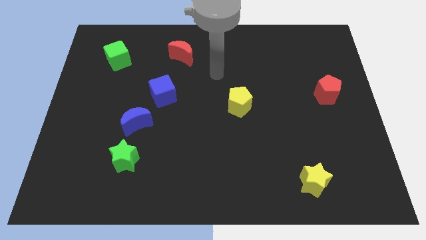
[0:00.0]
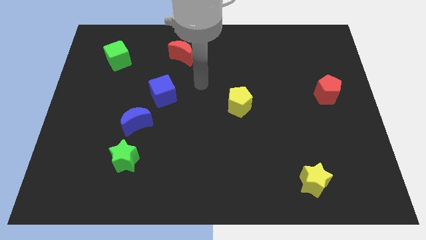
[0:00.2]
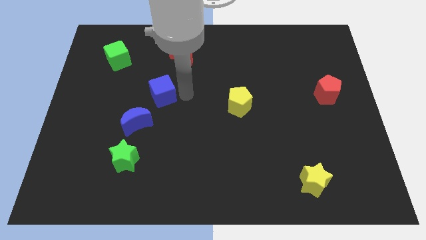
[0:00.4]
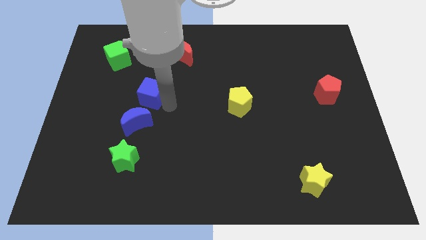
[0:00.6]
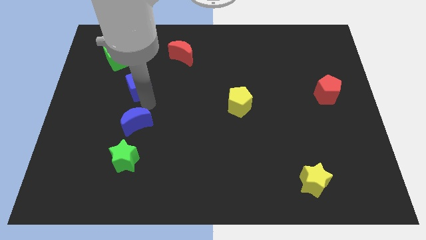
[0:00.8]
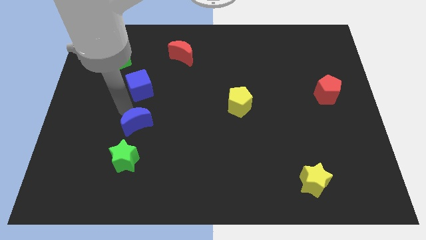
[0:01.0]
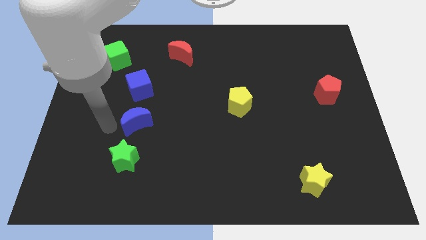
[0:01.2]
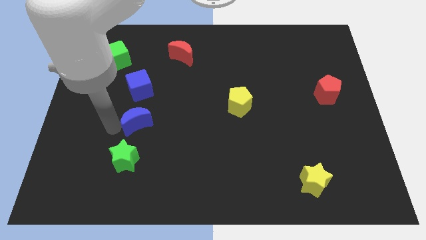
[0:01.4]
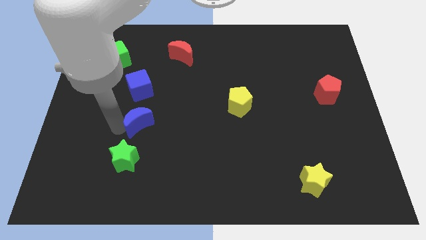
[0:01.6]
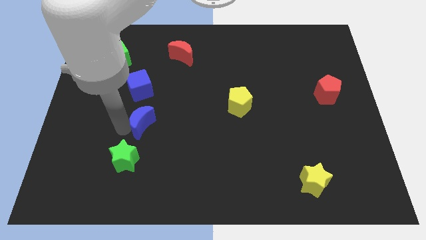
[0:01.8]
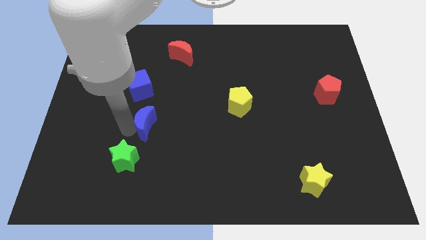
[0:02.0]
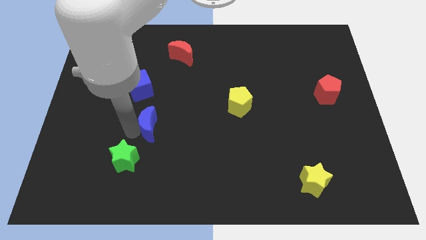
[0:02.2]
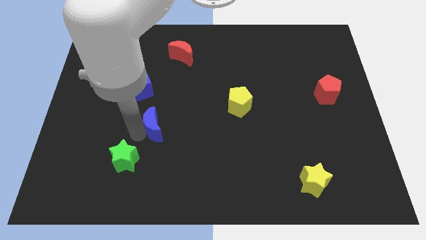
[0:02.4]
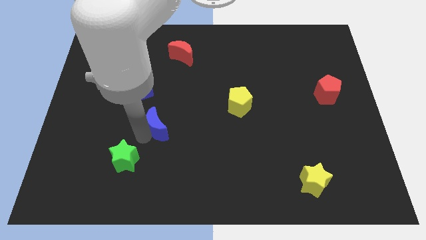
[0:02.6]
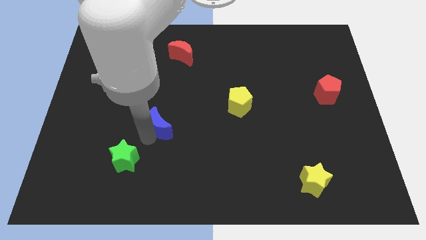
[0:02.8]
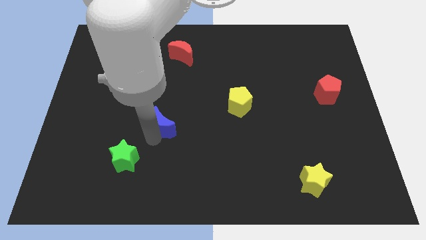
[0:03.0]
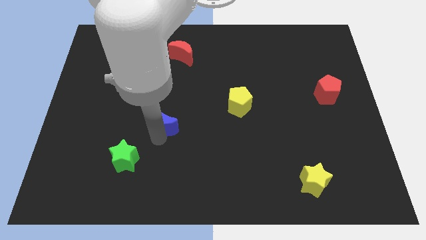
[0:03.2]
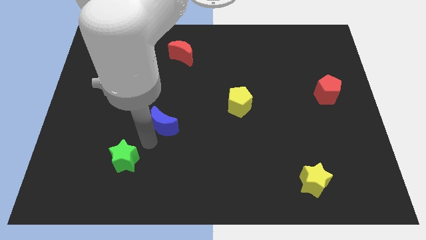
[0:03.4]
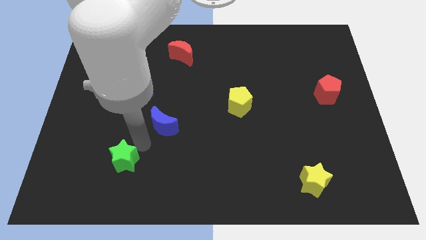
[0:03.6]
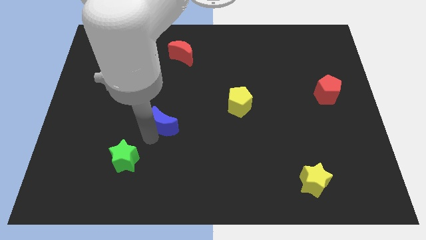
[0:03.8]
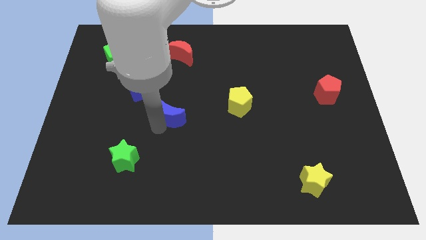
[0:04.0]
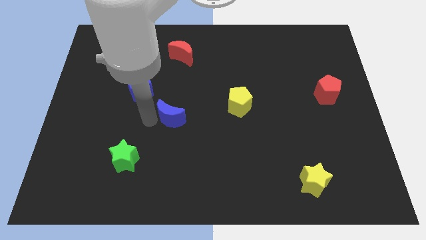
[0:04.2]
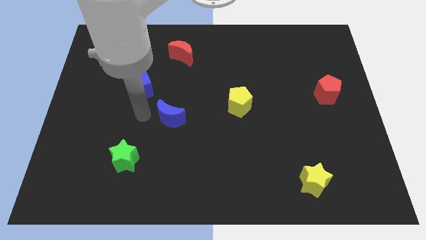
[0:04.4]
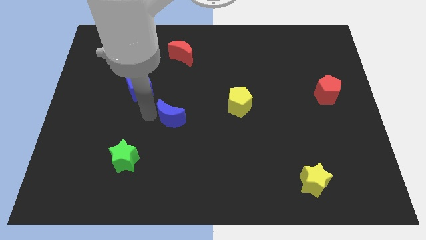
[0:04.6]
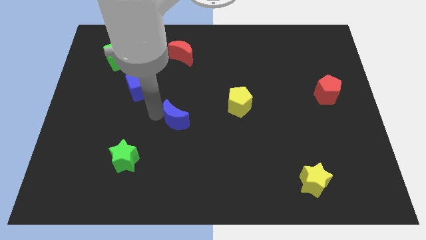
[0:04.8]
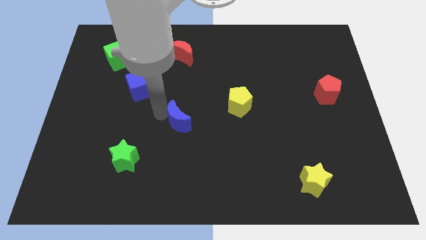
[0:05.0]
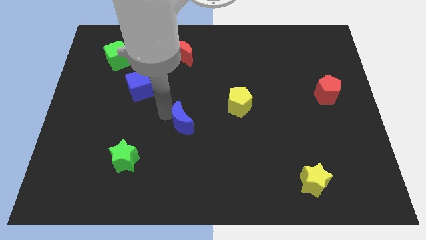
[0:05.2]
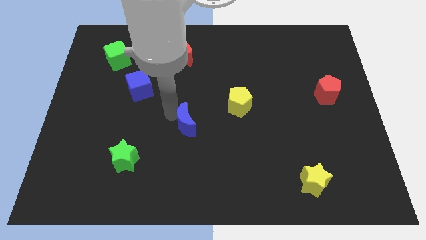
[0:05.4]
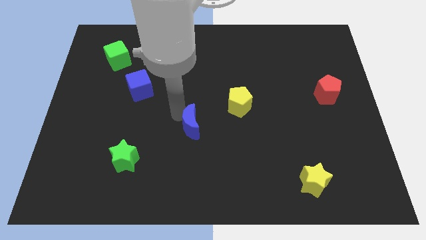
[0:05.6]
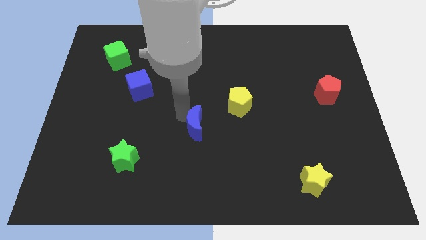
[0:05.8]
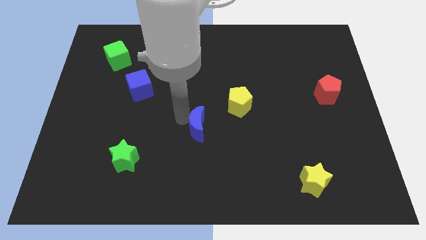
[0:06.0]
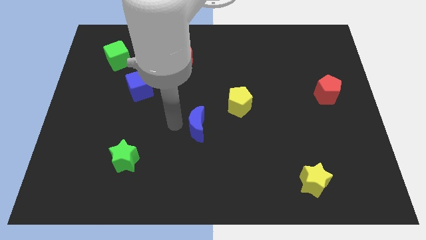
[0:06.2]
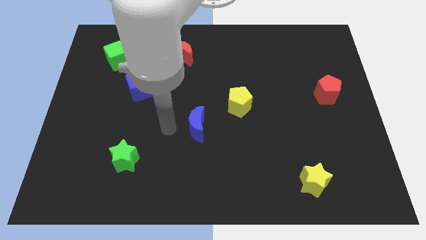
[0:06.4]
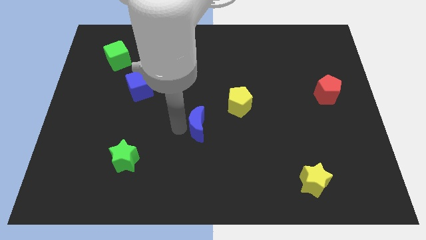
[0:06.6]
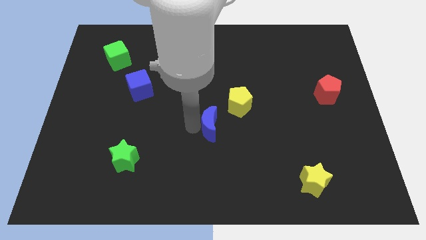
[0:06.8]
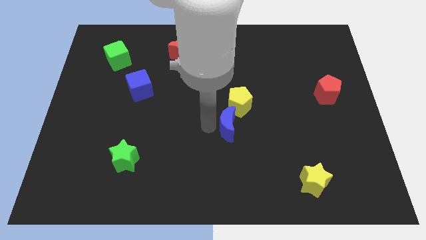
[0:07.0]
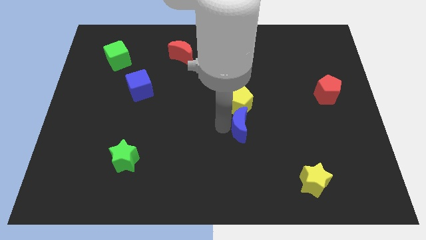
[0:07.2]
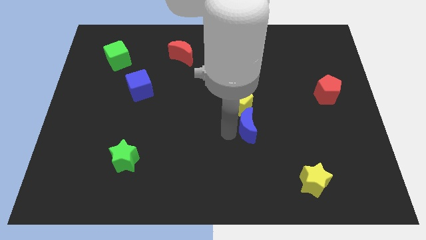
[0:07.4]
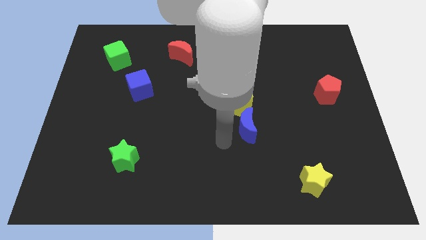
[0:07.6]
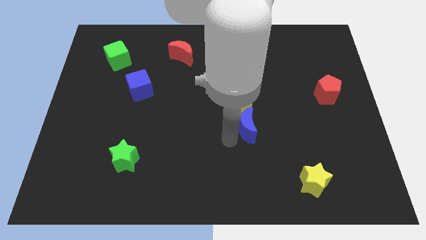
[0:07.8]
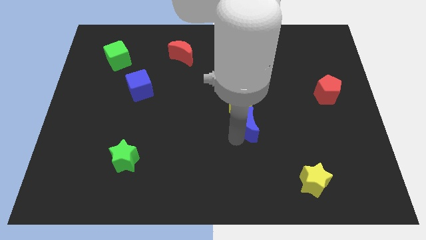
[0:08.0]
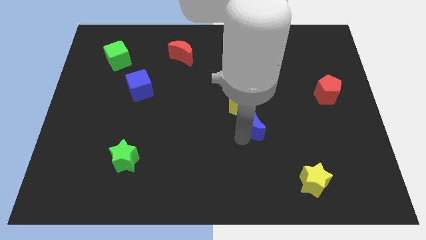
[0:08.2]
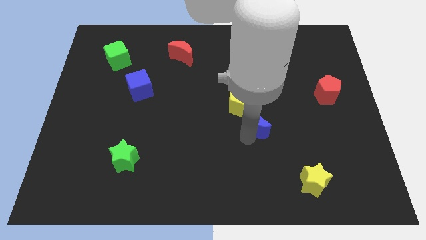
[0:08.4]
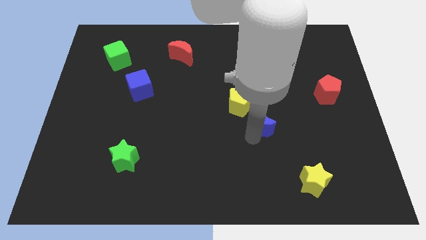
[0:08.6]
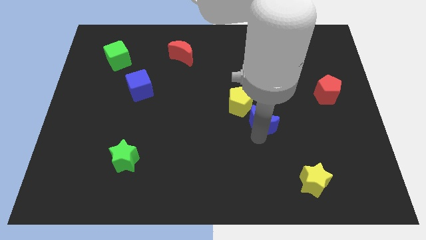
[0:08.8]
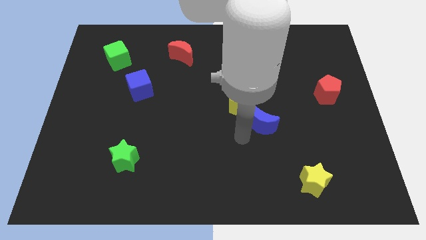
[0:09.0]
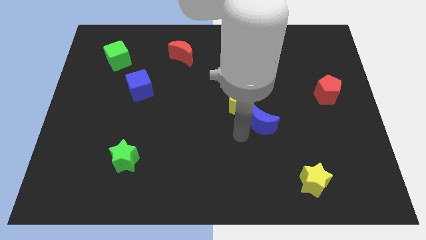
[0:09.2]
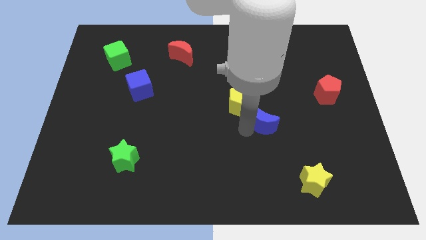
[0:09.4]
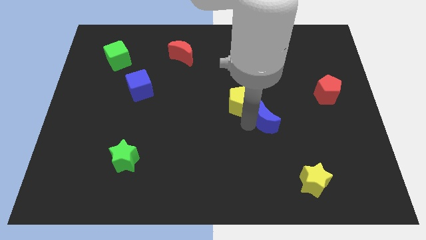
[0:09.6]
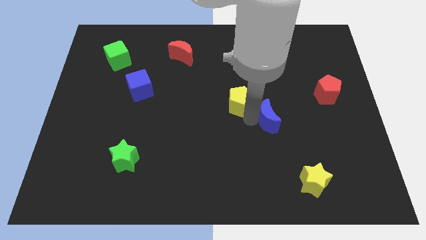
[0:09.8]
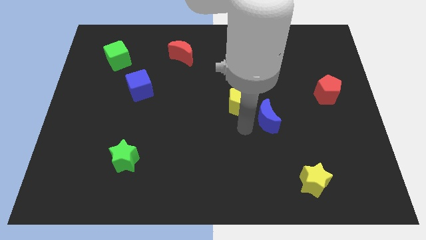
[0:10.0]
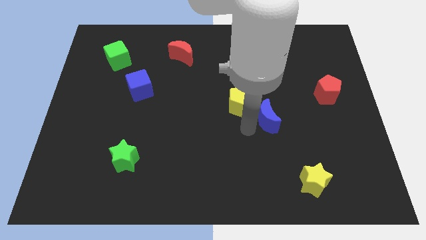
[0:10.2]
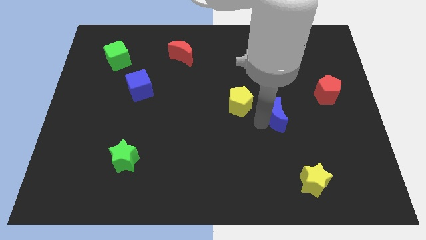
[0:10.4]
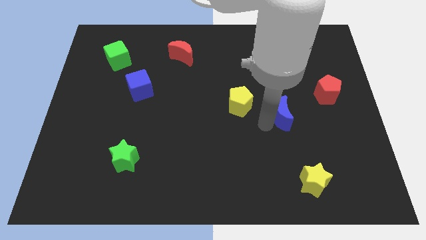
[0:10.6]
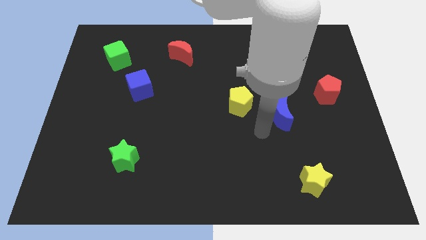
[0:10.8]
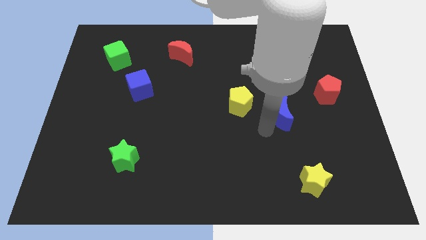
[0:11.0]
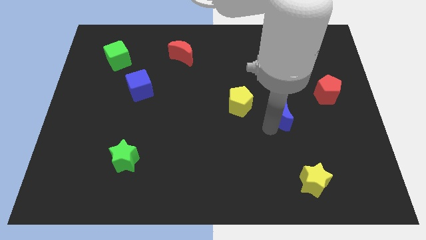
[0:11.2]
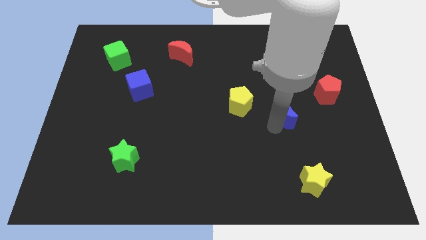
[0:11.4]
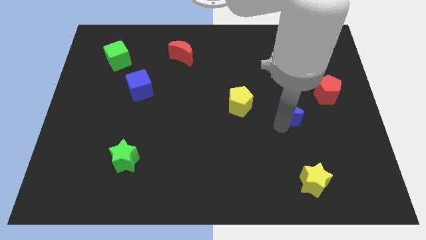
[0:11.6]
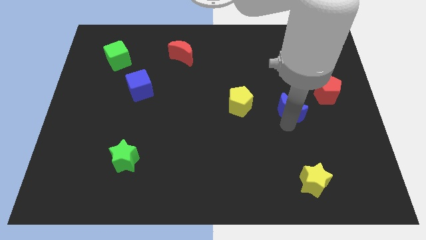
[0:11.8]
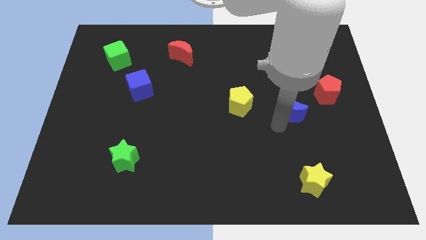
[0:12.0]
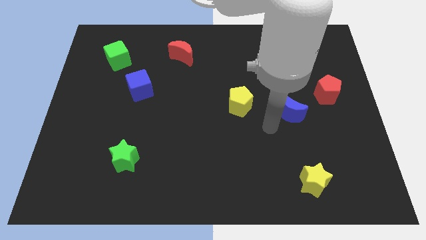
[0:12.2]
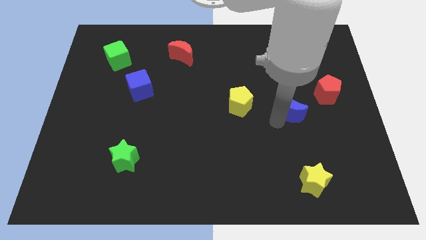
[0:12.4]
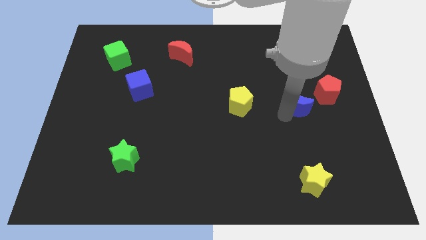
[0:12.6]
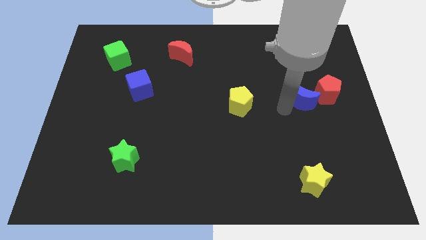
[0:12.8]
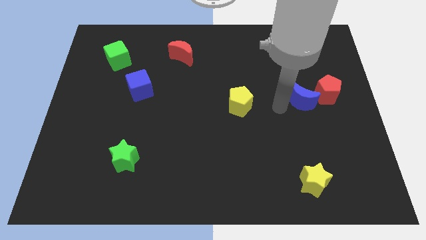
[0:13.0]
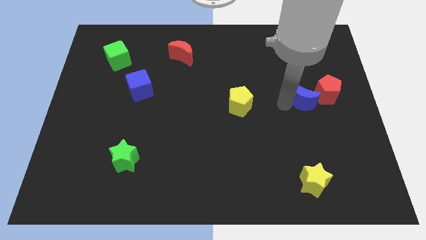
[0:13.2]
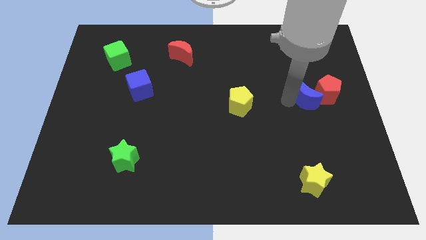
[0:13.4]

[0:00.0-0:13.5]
slide the blue moon towards the red pentagon

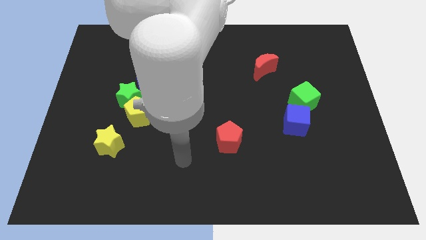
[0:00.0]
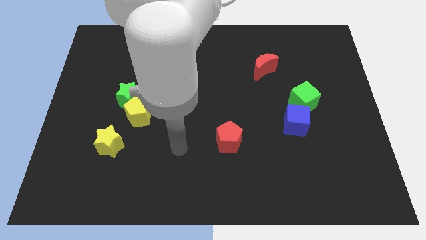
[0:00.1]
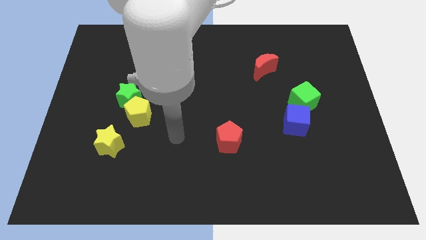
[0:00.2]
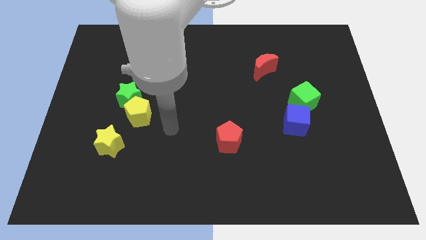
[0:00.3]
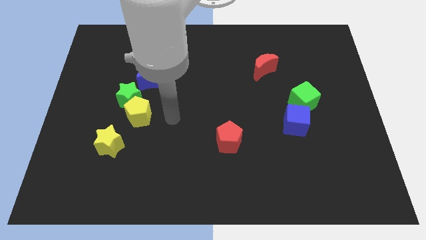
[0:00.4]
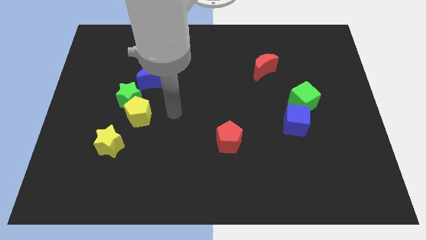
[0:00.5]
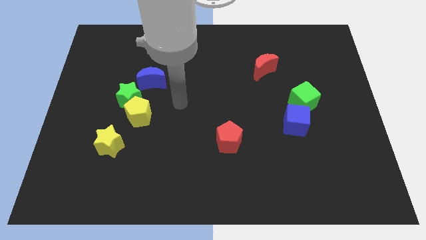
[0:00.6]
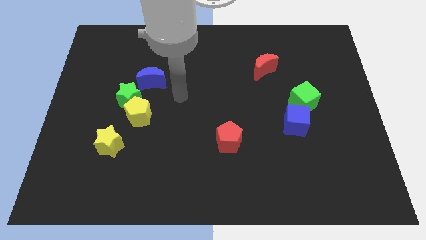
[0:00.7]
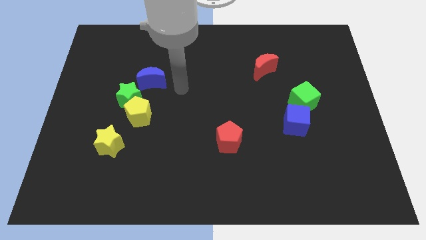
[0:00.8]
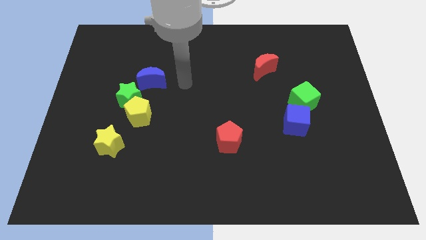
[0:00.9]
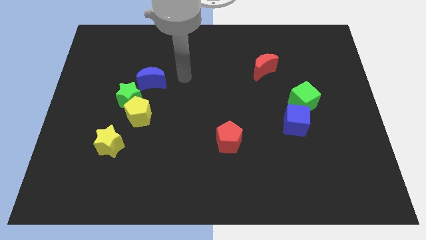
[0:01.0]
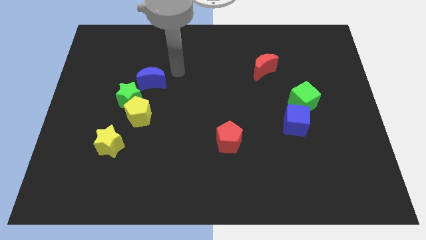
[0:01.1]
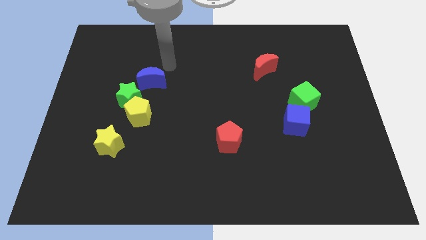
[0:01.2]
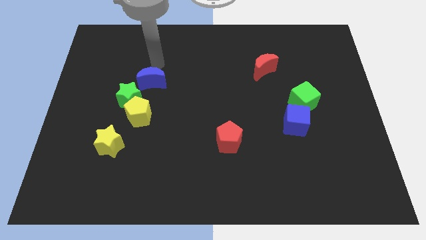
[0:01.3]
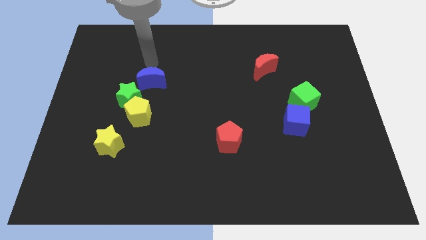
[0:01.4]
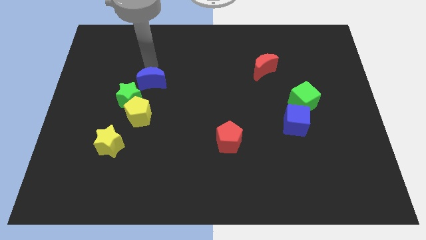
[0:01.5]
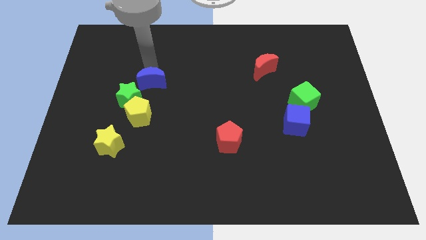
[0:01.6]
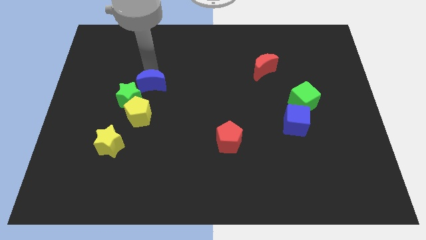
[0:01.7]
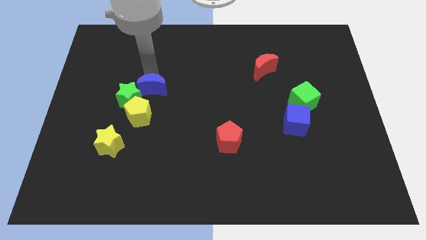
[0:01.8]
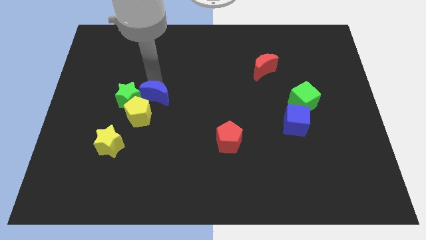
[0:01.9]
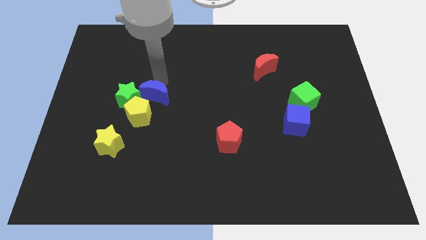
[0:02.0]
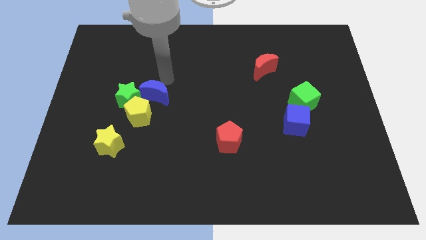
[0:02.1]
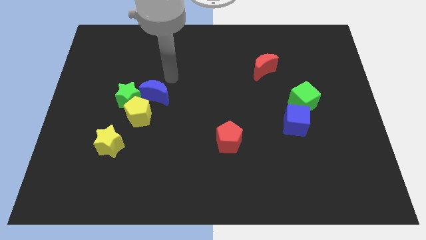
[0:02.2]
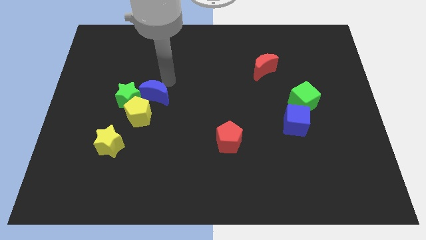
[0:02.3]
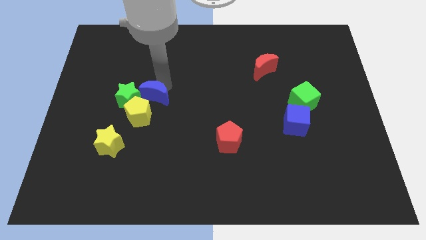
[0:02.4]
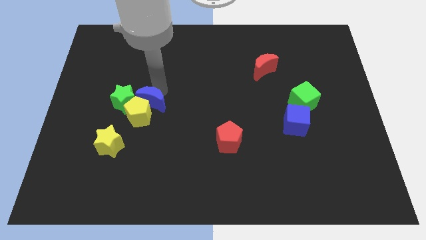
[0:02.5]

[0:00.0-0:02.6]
push the blue moon towards the yellow pentagon
